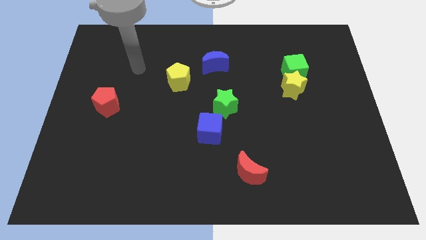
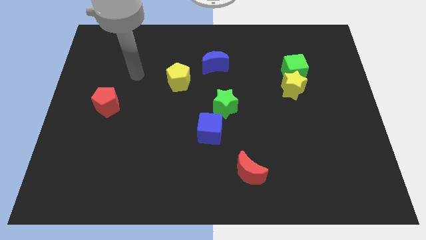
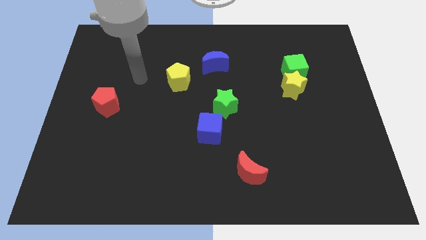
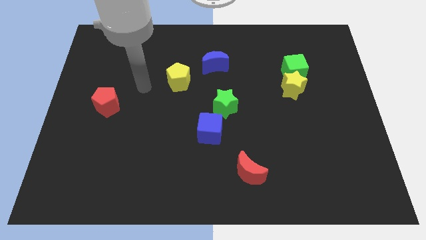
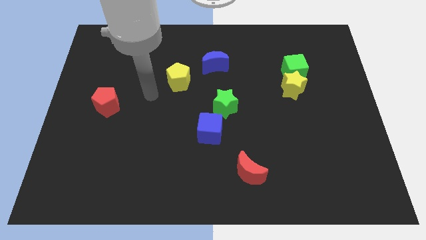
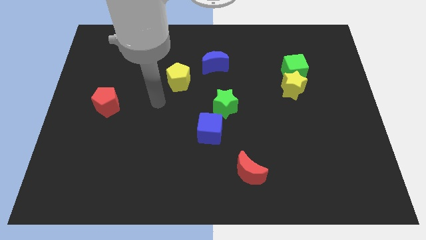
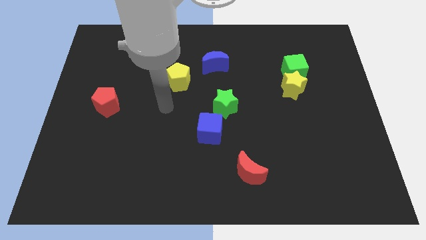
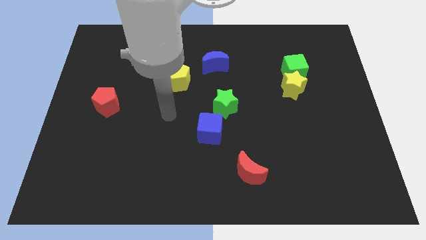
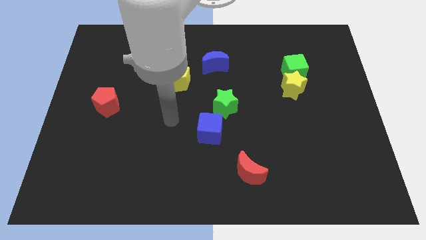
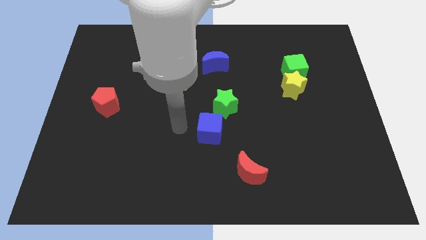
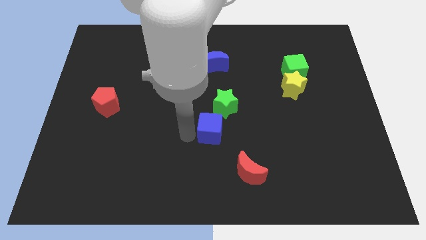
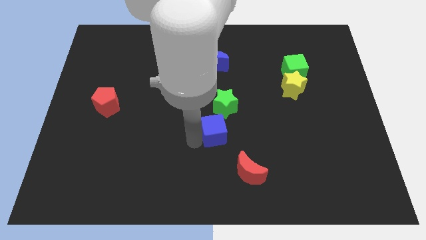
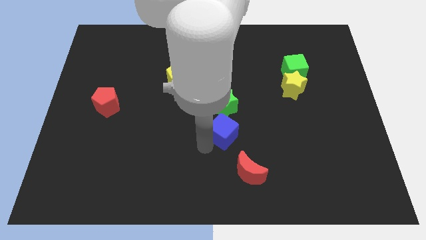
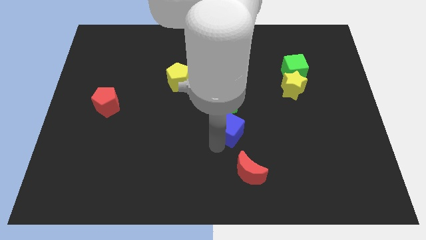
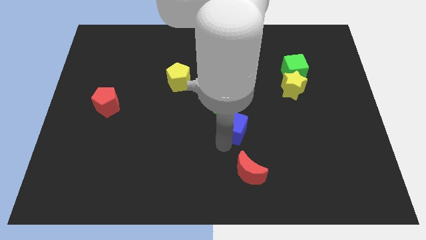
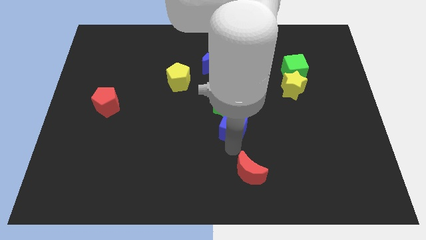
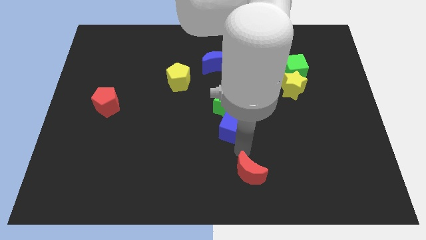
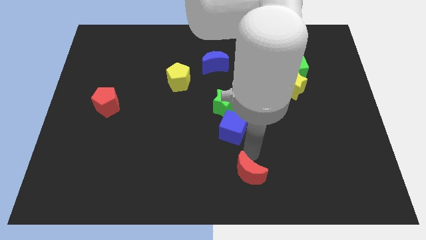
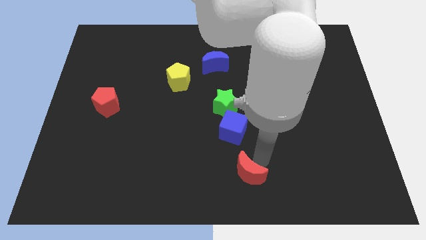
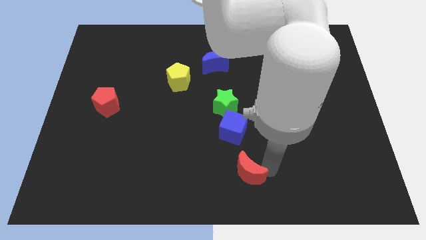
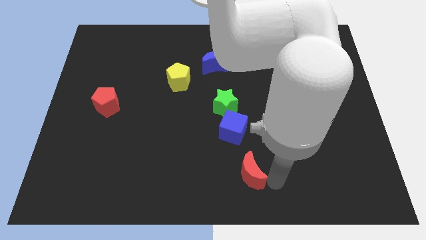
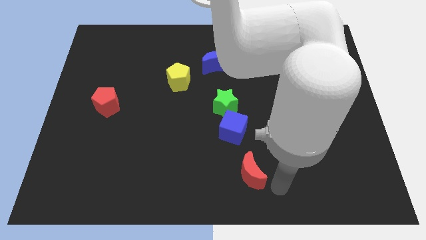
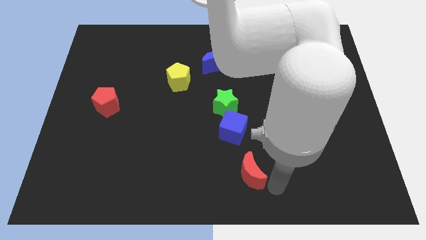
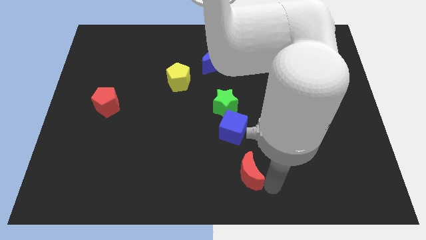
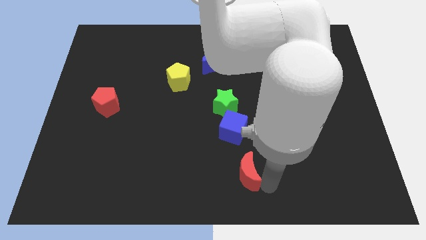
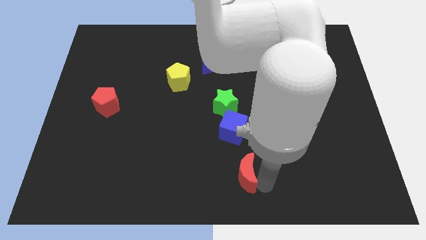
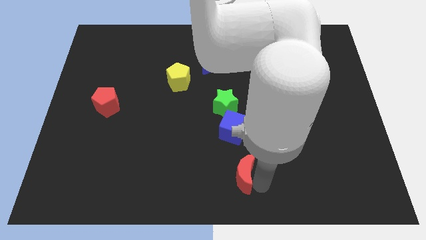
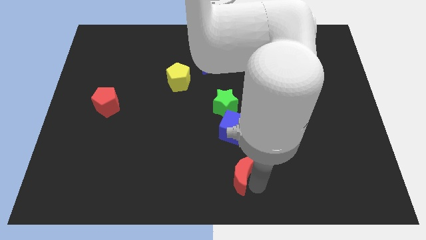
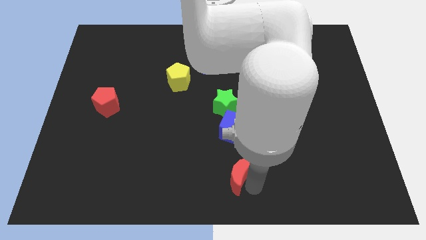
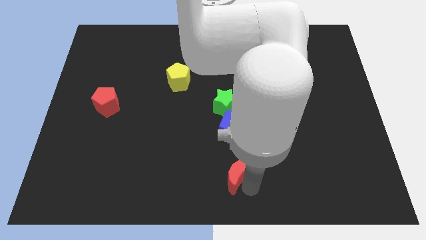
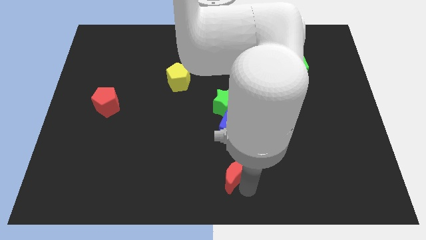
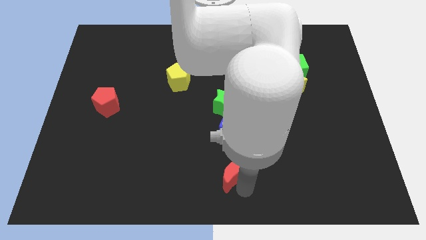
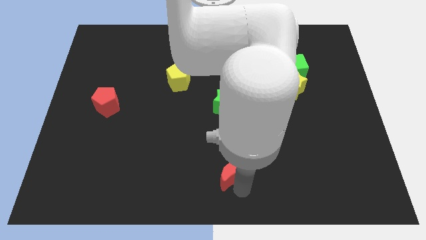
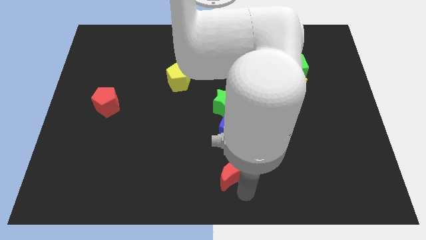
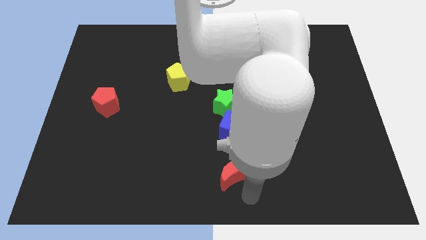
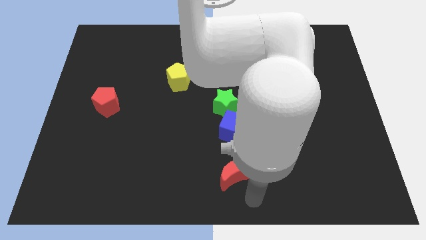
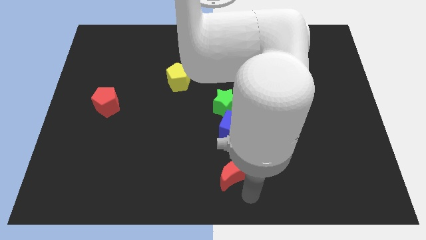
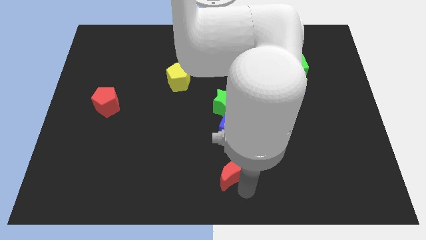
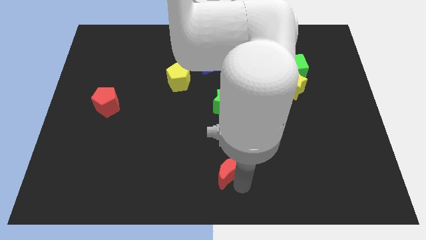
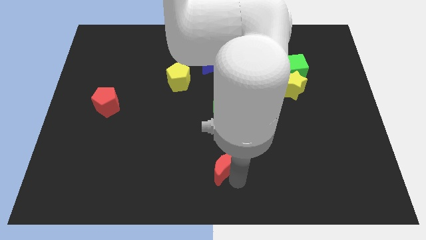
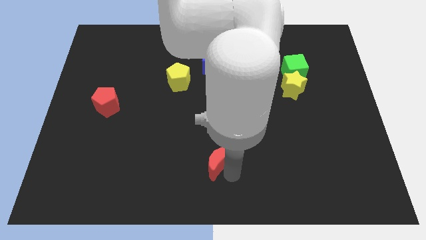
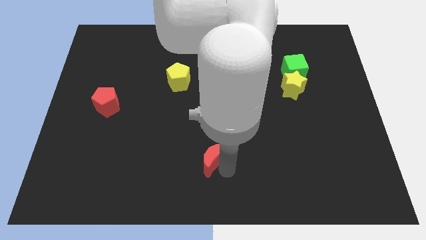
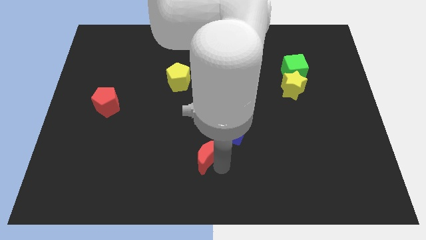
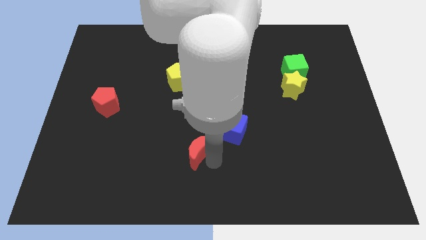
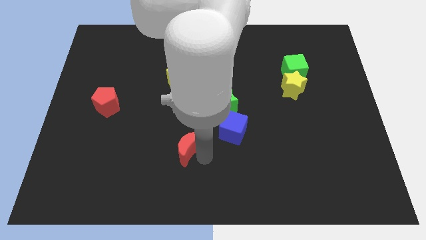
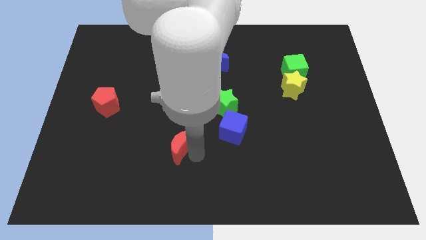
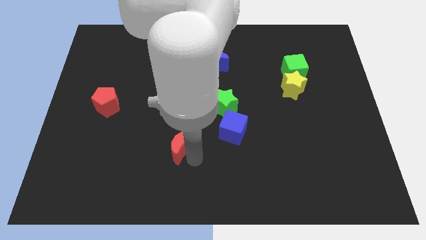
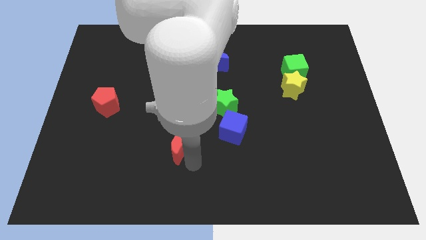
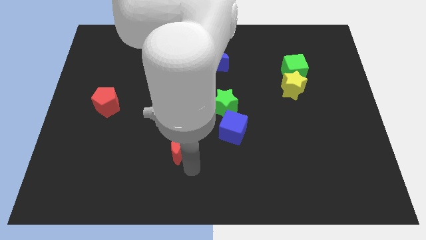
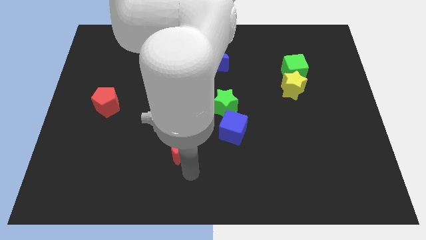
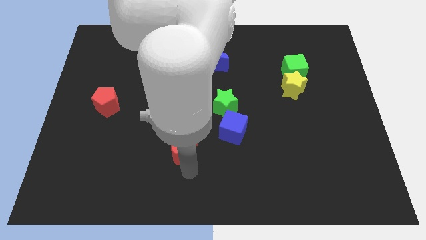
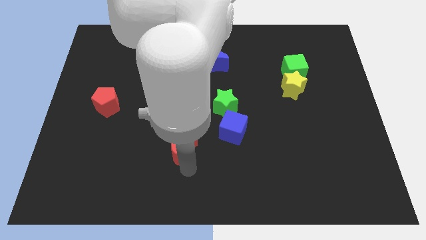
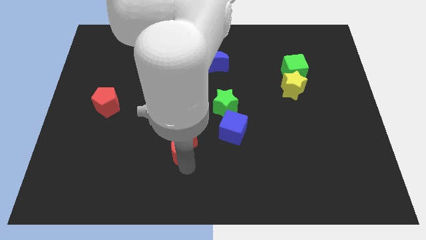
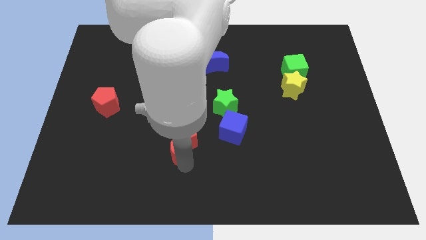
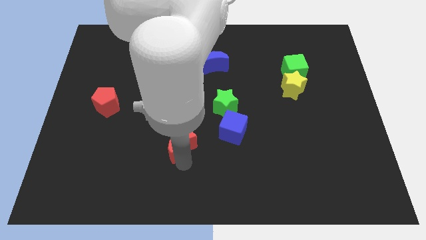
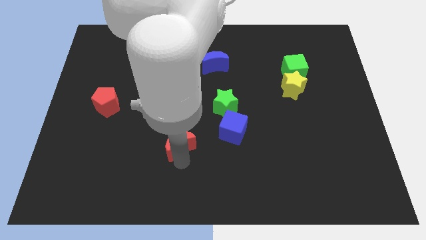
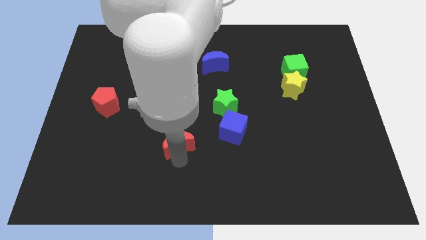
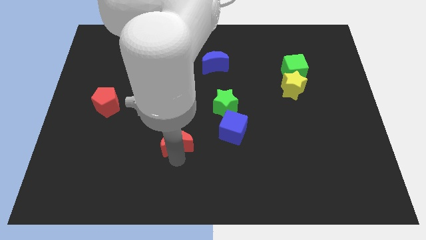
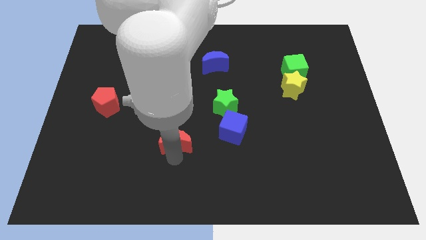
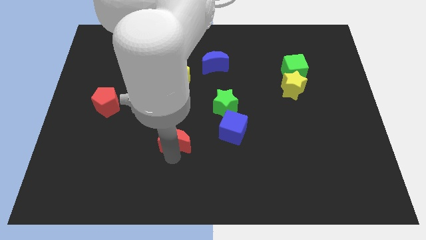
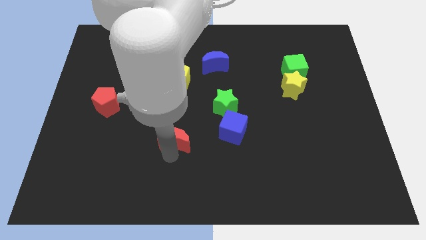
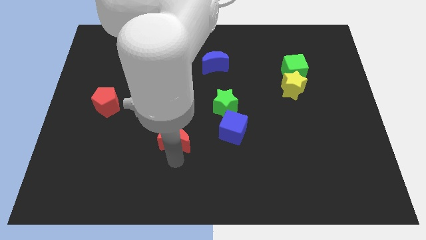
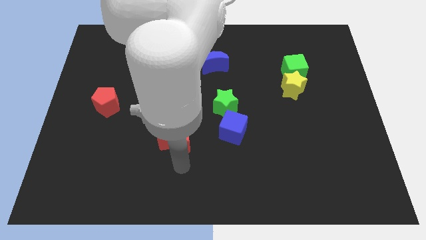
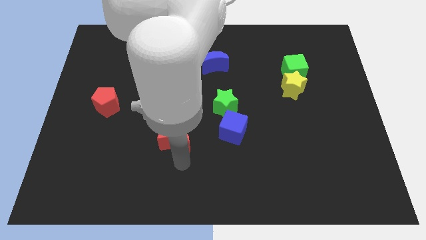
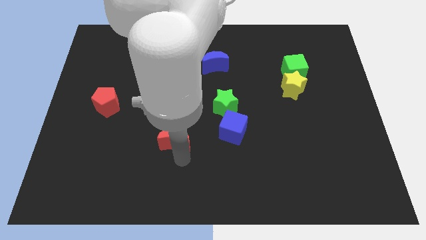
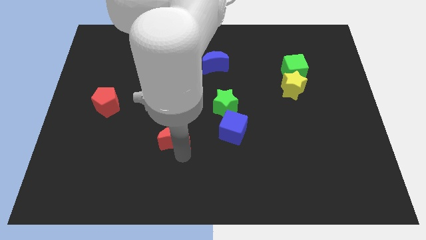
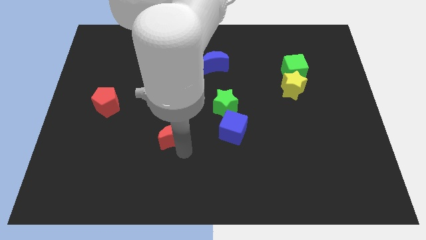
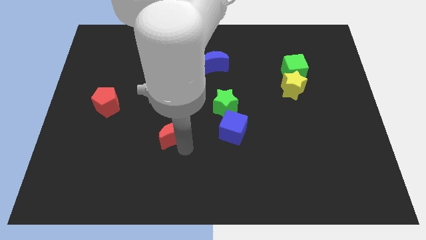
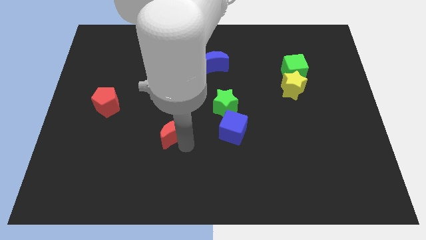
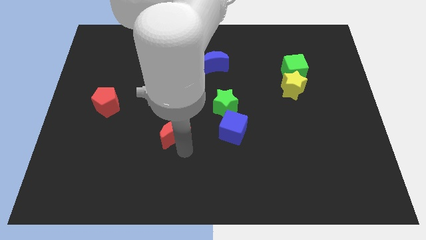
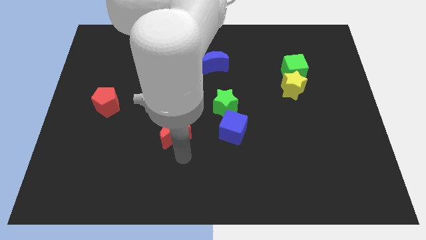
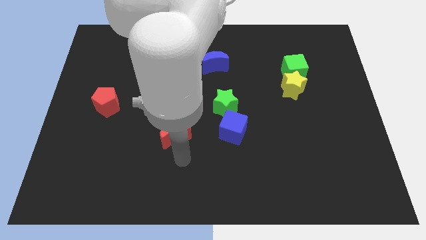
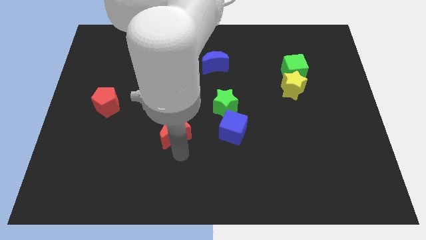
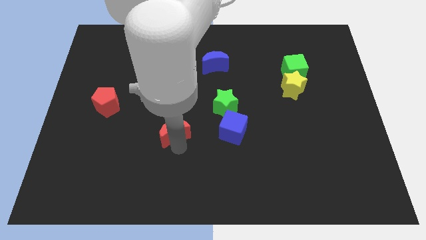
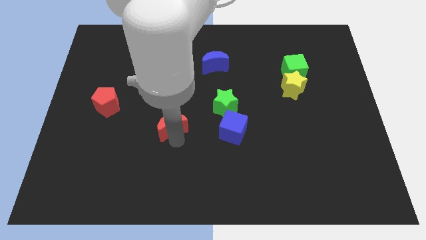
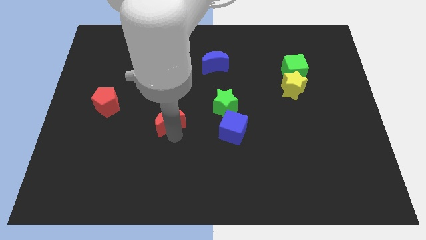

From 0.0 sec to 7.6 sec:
push the red moon up and then to the left
